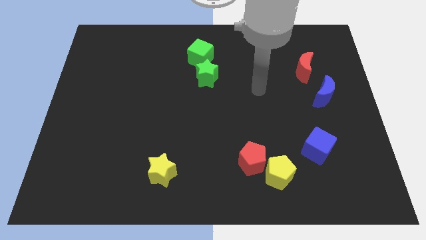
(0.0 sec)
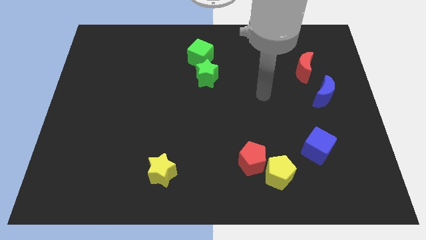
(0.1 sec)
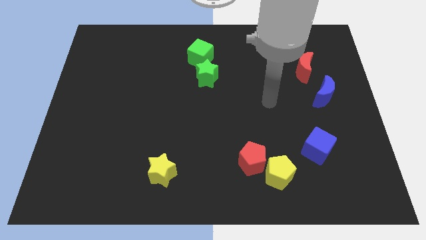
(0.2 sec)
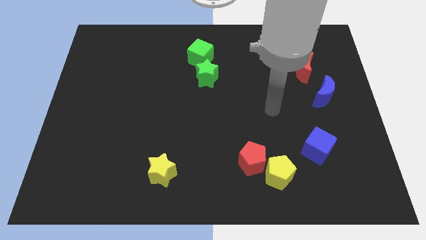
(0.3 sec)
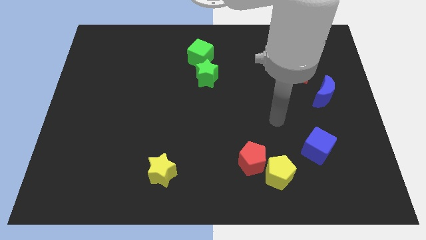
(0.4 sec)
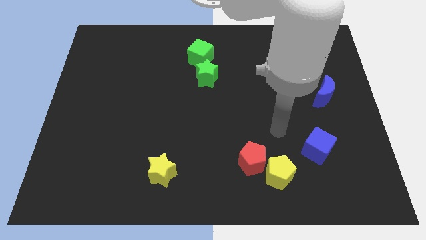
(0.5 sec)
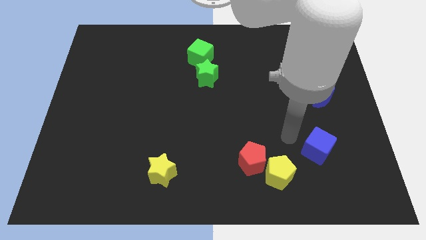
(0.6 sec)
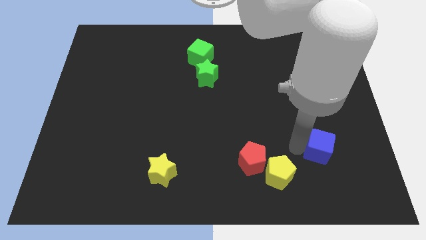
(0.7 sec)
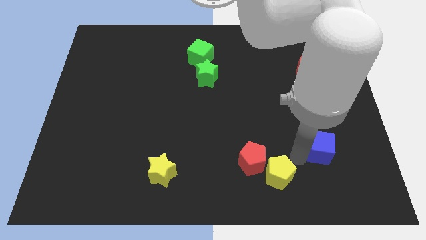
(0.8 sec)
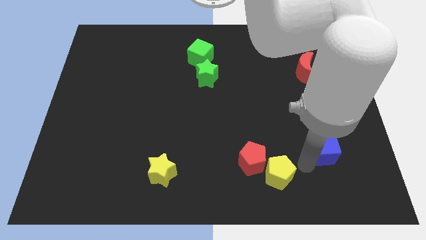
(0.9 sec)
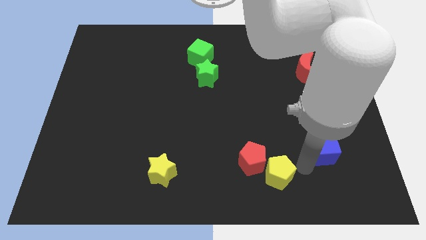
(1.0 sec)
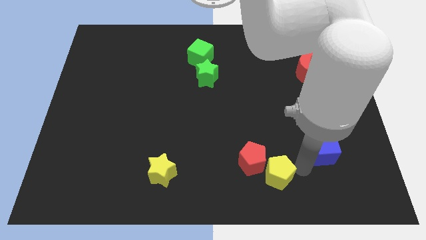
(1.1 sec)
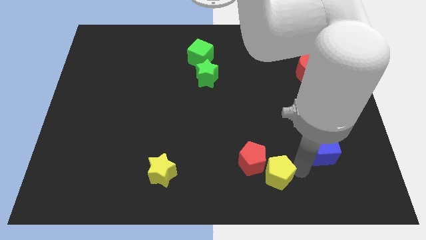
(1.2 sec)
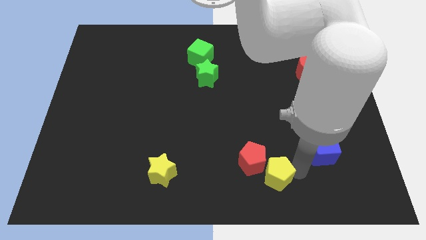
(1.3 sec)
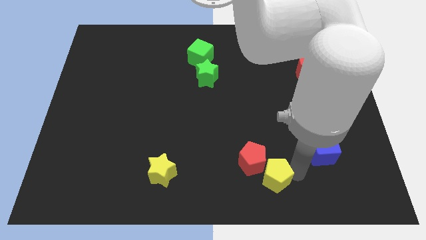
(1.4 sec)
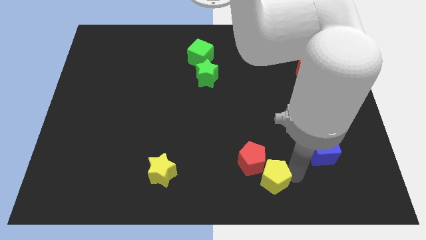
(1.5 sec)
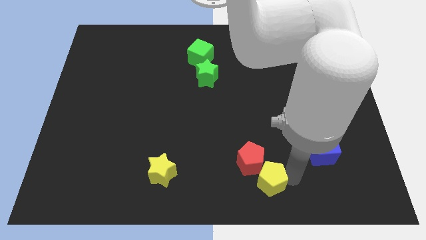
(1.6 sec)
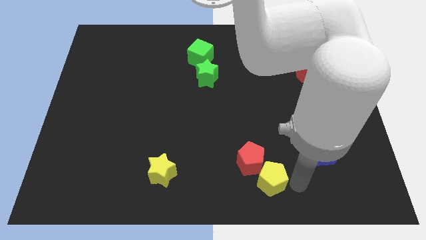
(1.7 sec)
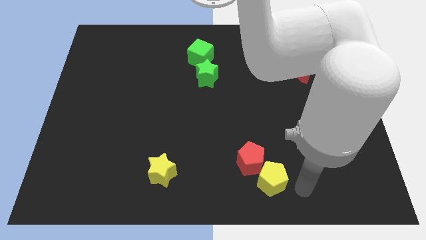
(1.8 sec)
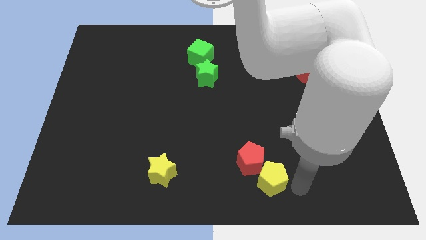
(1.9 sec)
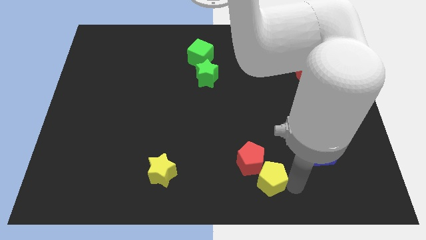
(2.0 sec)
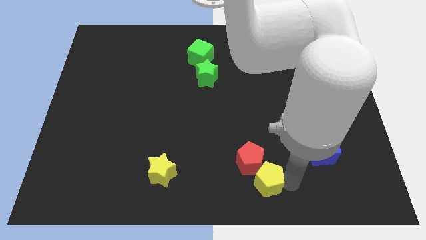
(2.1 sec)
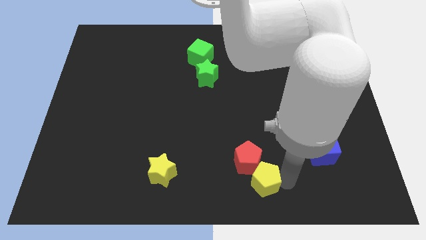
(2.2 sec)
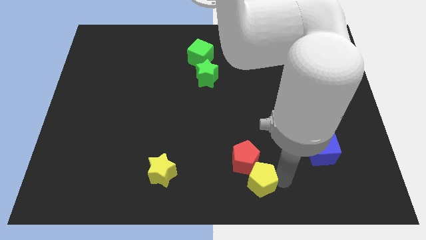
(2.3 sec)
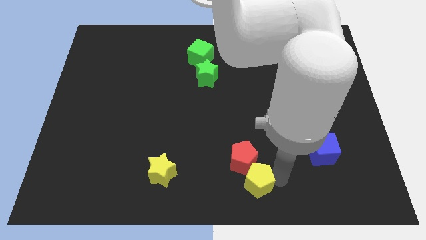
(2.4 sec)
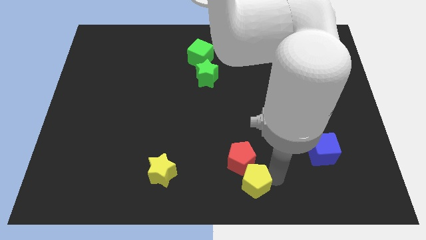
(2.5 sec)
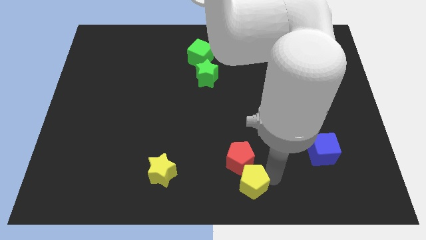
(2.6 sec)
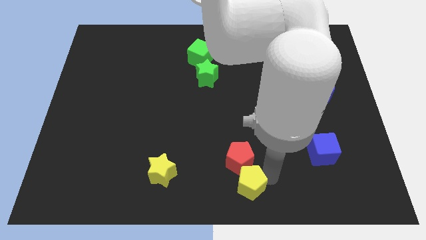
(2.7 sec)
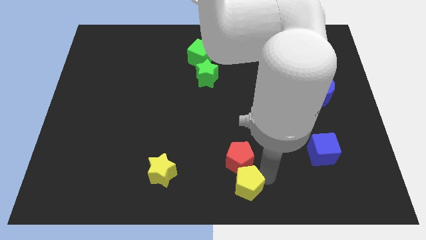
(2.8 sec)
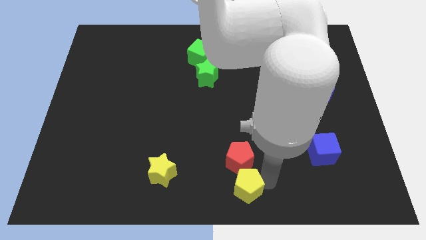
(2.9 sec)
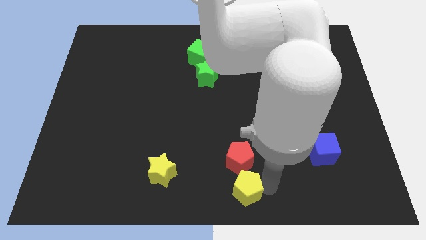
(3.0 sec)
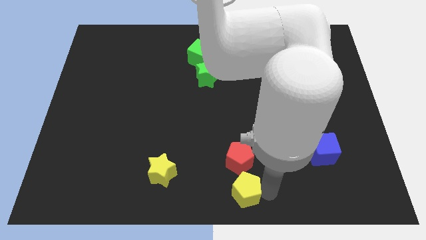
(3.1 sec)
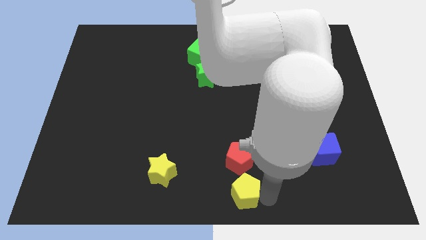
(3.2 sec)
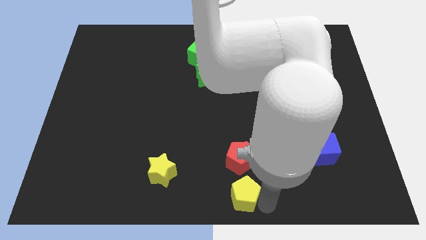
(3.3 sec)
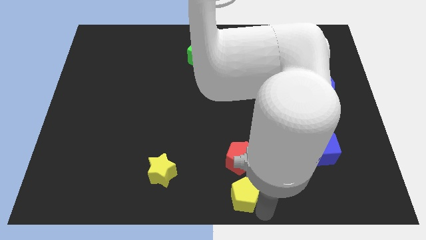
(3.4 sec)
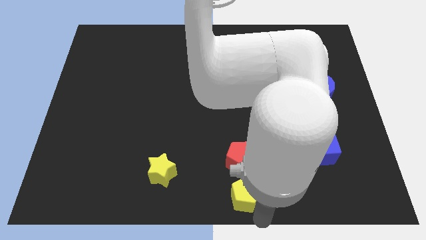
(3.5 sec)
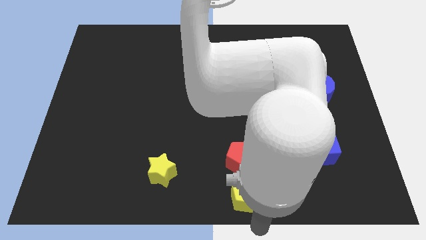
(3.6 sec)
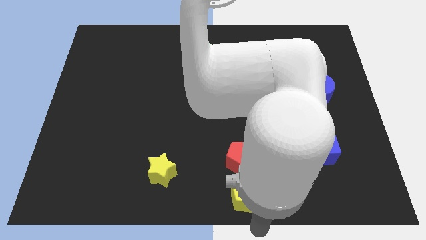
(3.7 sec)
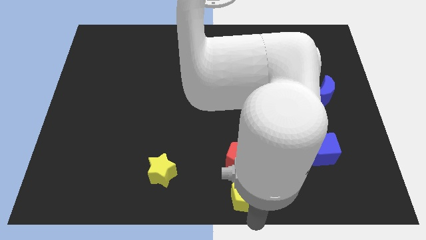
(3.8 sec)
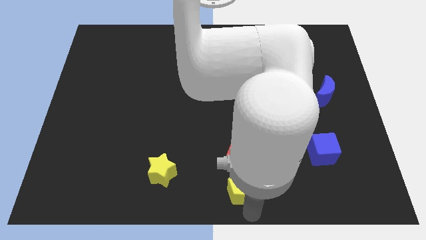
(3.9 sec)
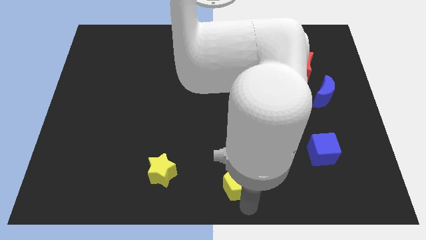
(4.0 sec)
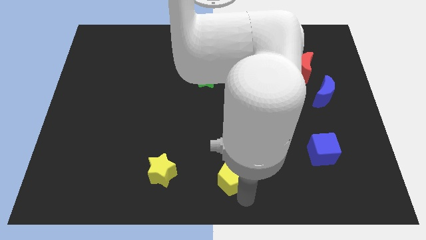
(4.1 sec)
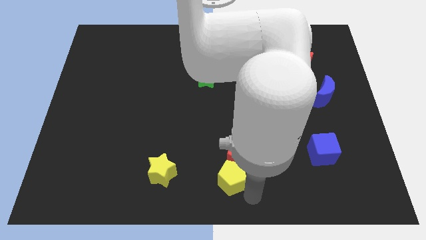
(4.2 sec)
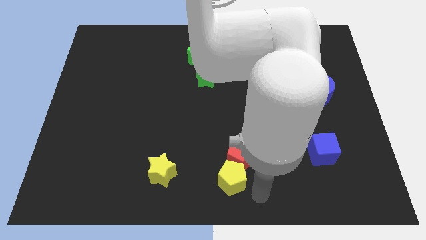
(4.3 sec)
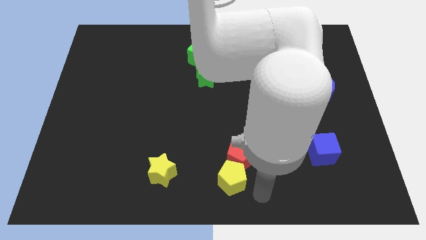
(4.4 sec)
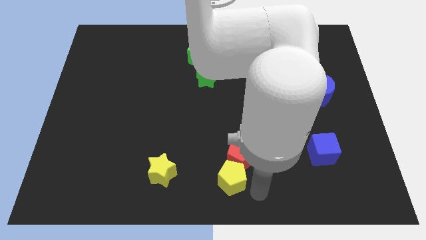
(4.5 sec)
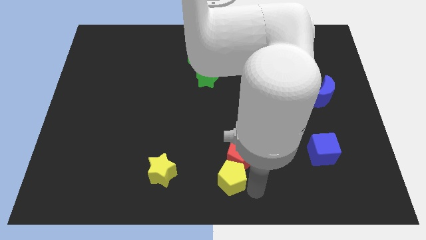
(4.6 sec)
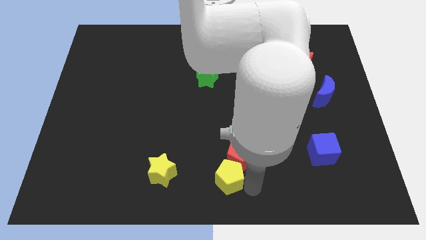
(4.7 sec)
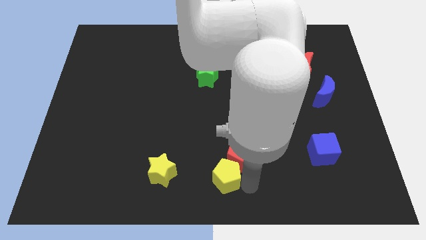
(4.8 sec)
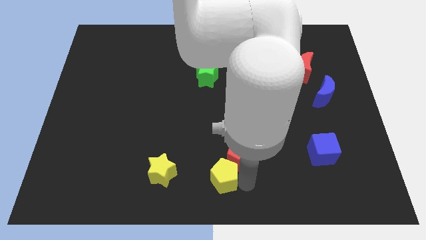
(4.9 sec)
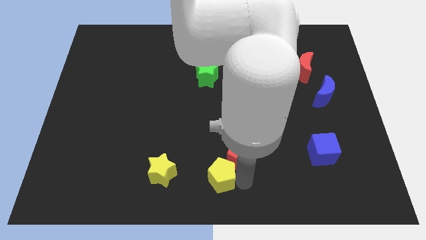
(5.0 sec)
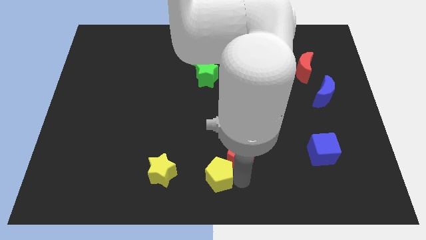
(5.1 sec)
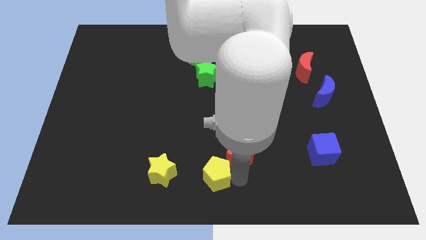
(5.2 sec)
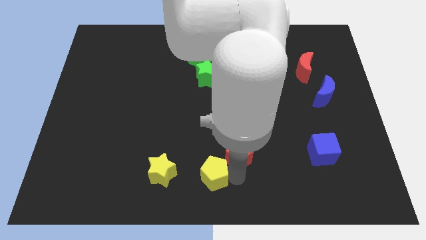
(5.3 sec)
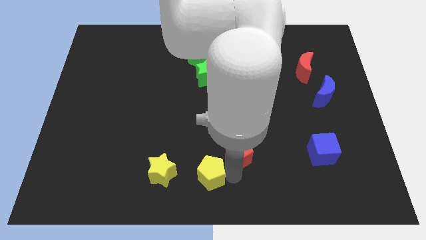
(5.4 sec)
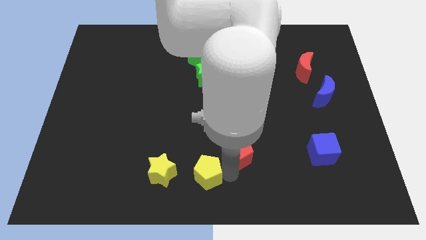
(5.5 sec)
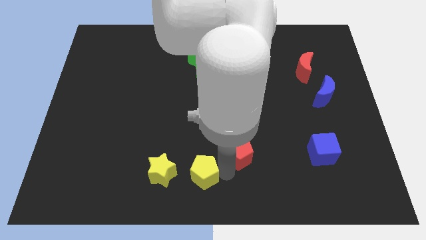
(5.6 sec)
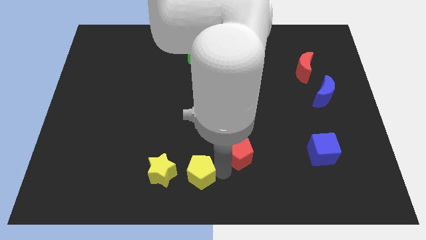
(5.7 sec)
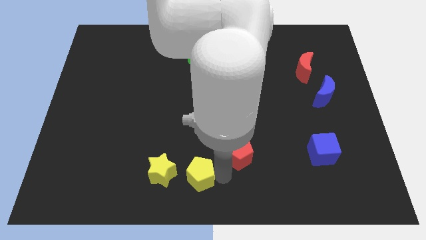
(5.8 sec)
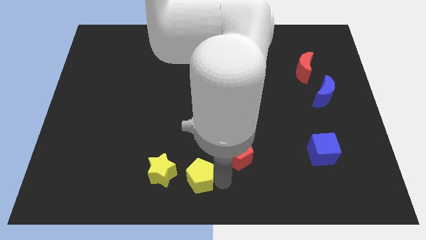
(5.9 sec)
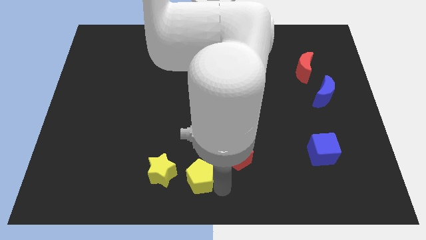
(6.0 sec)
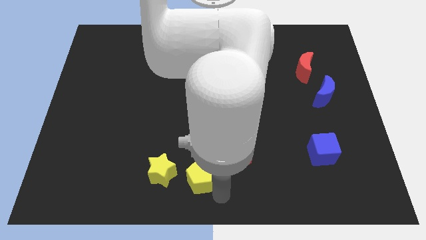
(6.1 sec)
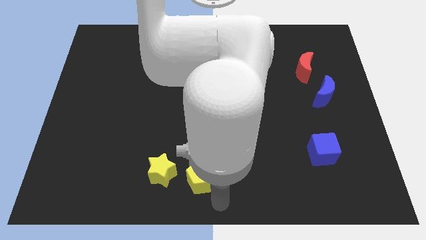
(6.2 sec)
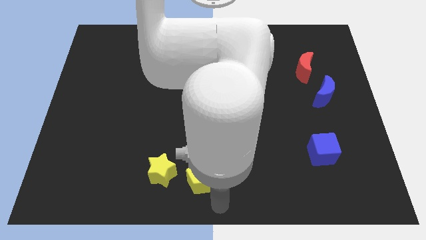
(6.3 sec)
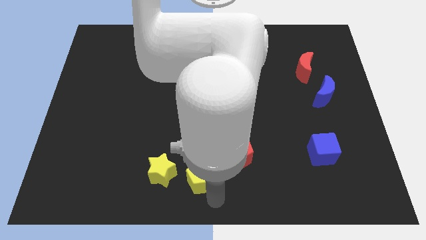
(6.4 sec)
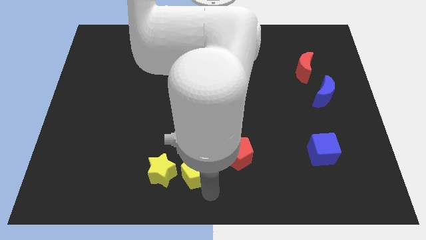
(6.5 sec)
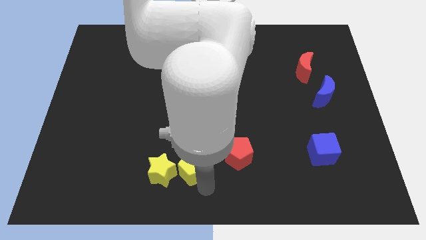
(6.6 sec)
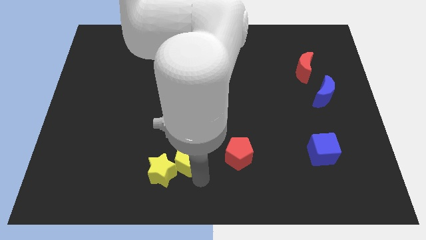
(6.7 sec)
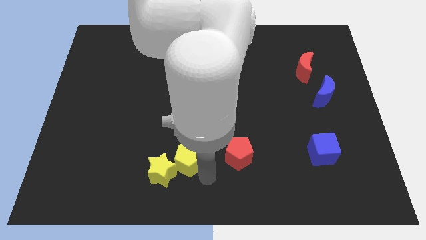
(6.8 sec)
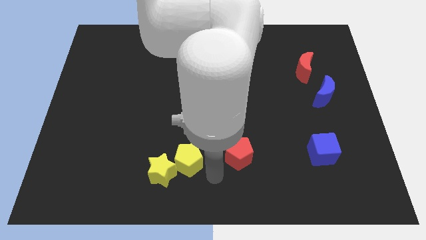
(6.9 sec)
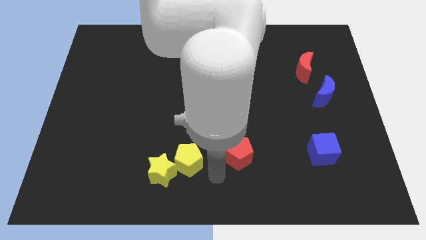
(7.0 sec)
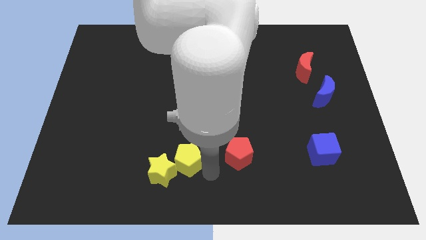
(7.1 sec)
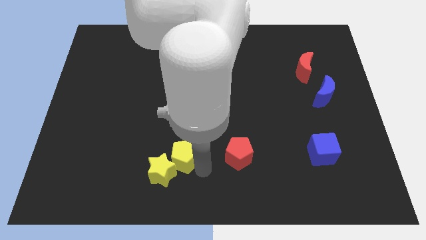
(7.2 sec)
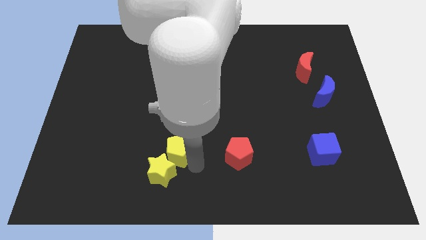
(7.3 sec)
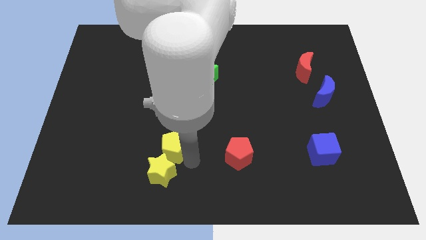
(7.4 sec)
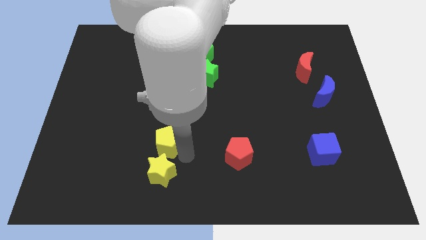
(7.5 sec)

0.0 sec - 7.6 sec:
push the yellow pentagon to the top left of the yellow star

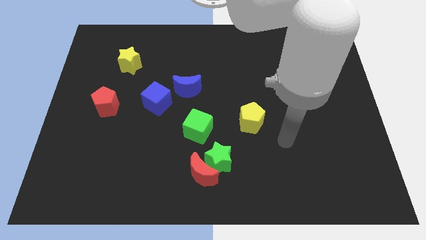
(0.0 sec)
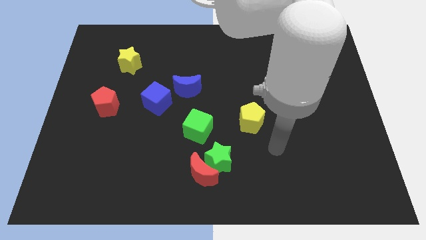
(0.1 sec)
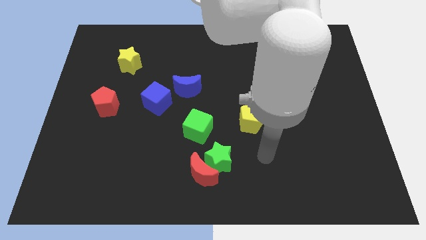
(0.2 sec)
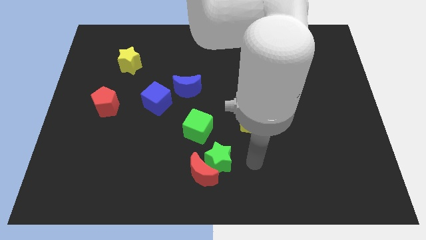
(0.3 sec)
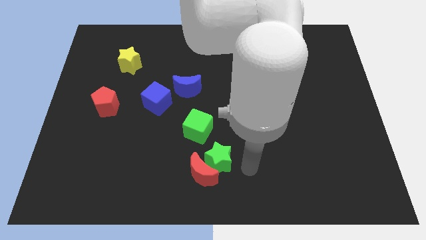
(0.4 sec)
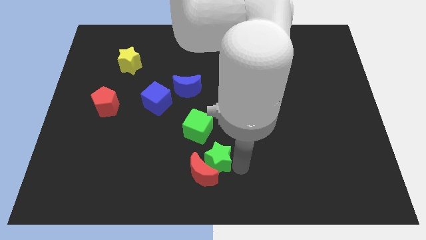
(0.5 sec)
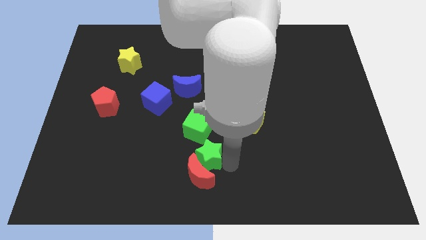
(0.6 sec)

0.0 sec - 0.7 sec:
slide the green star to the top left side of the red moon
